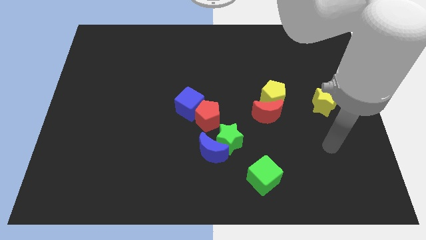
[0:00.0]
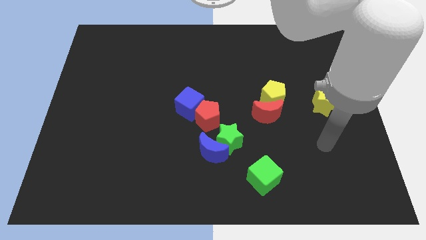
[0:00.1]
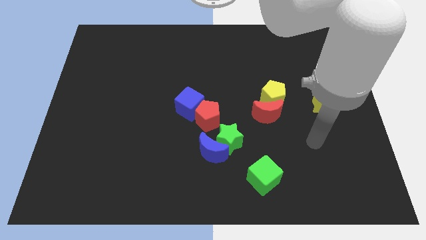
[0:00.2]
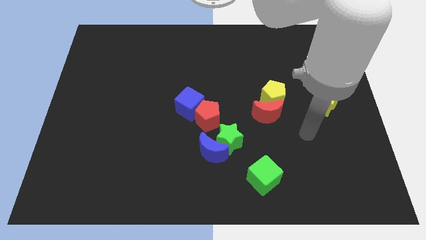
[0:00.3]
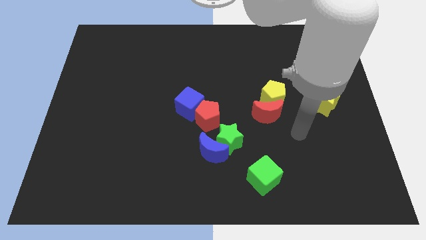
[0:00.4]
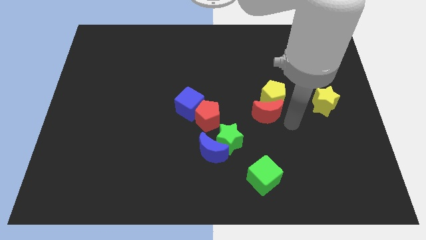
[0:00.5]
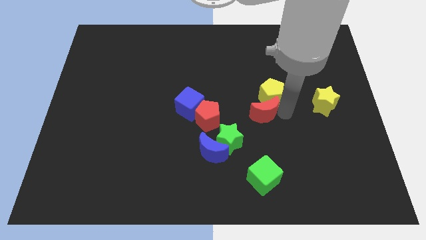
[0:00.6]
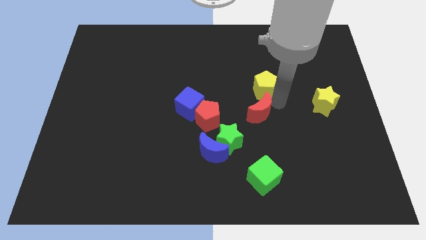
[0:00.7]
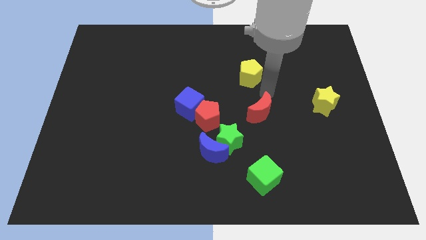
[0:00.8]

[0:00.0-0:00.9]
move the red moon away from the yellow pentagon

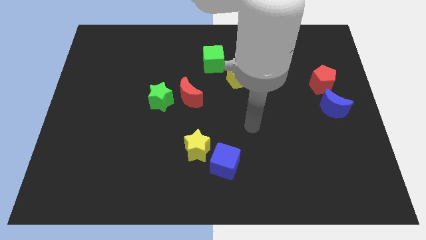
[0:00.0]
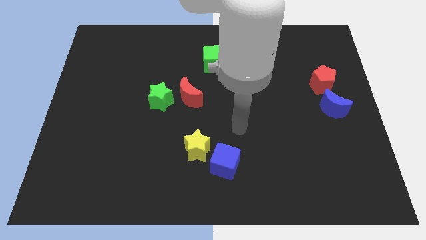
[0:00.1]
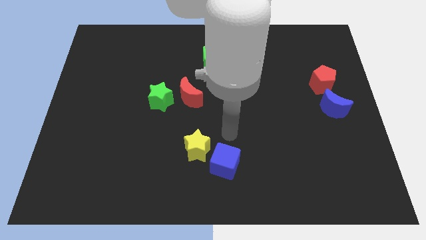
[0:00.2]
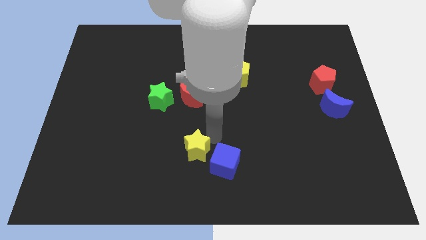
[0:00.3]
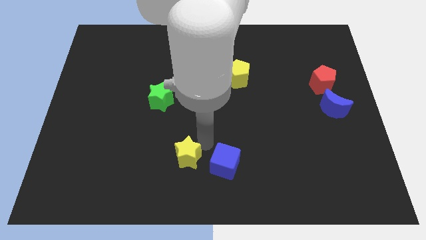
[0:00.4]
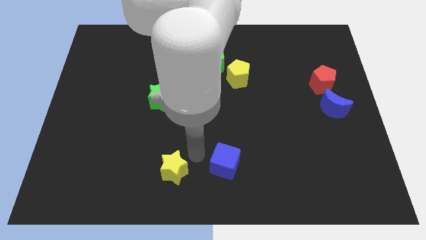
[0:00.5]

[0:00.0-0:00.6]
move the blue cube away from the yellow star

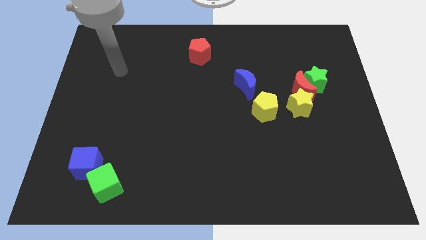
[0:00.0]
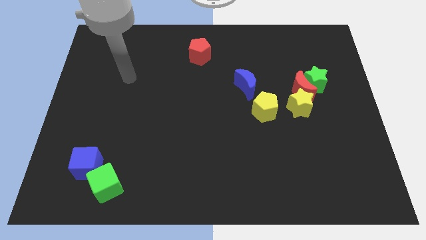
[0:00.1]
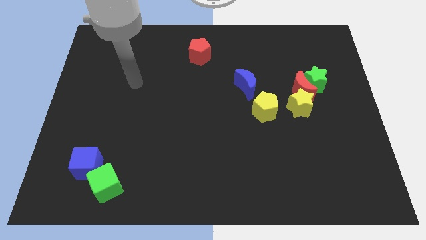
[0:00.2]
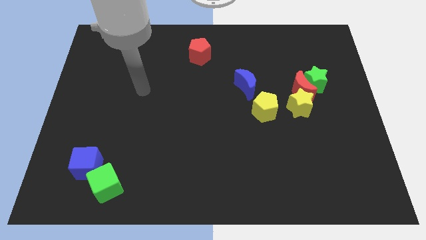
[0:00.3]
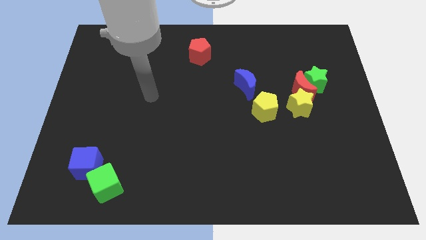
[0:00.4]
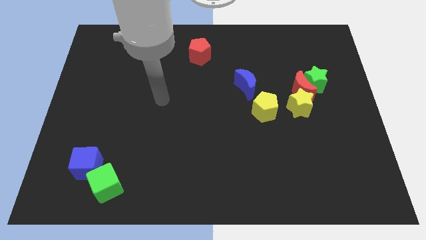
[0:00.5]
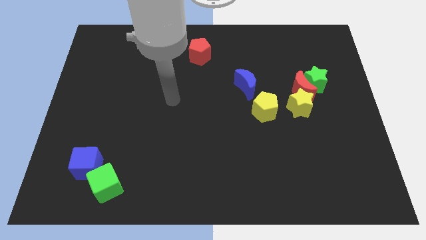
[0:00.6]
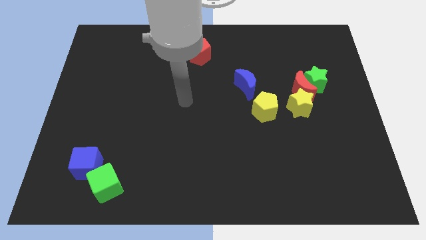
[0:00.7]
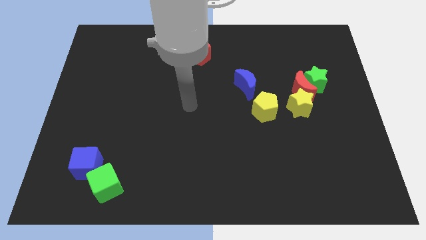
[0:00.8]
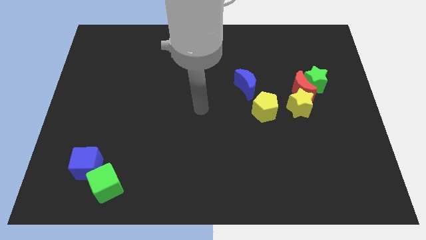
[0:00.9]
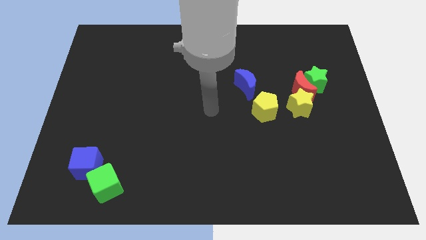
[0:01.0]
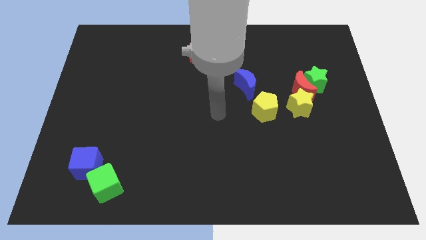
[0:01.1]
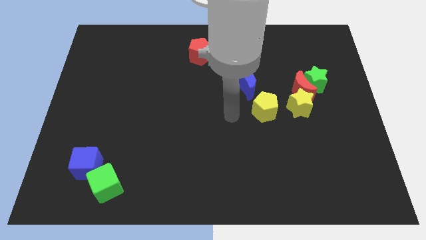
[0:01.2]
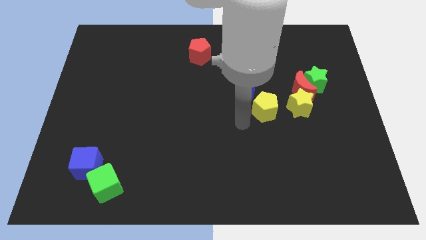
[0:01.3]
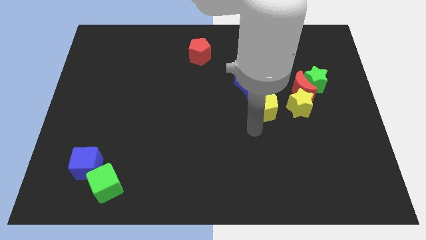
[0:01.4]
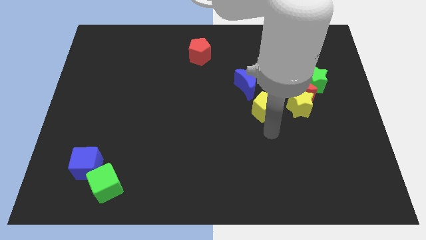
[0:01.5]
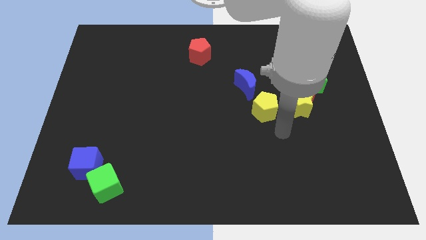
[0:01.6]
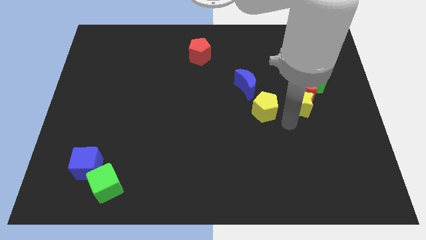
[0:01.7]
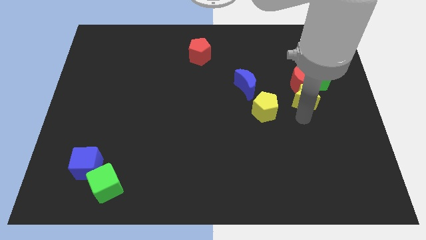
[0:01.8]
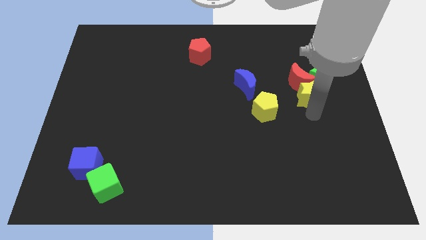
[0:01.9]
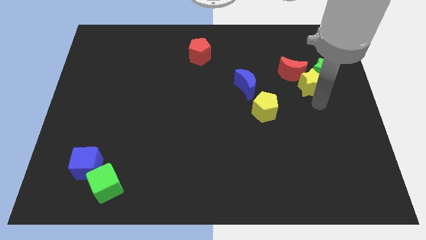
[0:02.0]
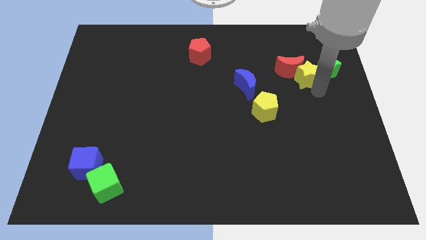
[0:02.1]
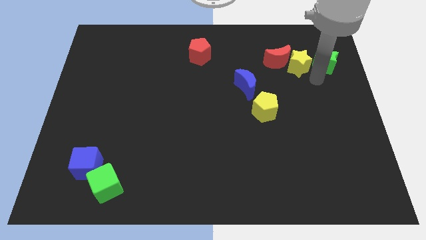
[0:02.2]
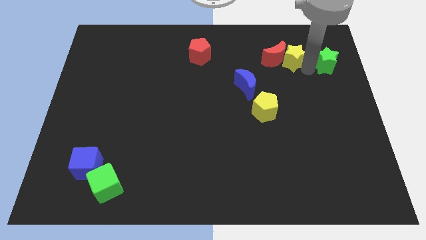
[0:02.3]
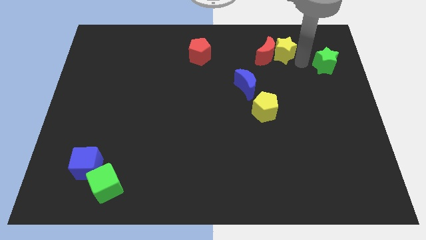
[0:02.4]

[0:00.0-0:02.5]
separate the red moon from the green star and yellow star

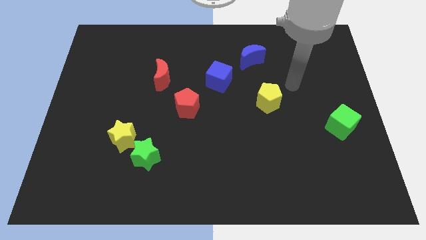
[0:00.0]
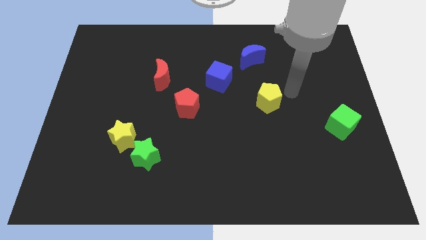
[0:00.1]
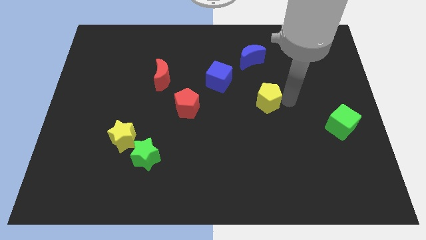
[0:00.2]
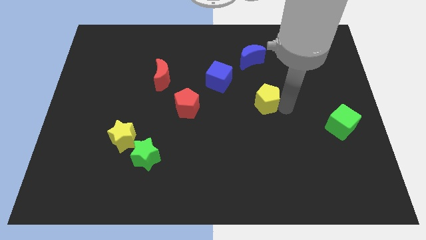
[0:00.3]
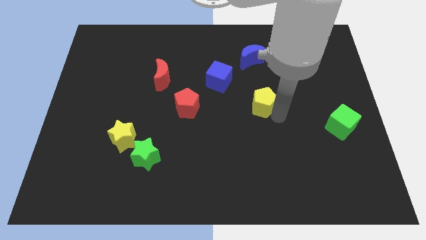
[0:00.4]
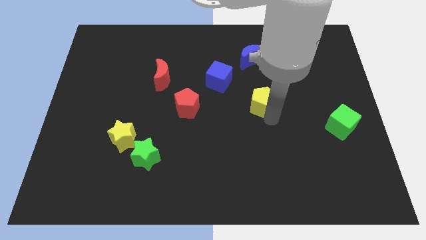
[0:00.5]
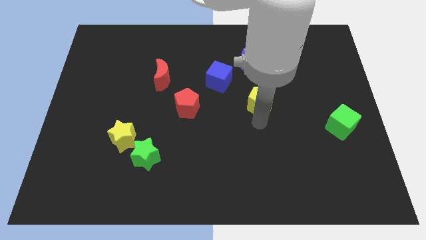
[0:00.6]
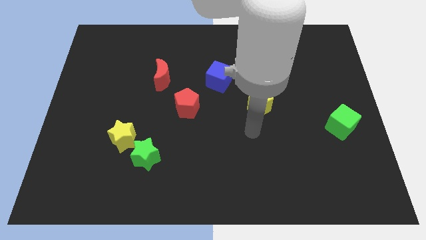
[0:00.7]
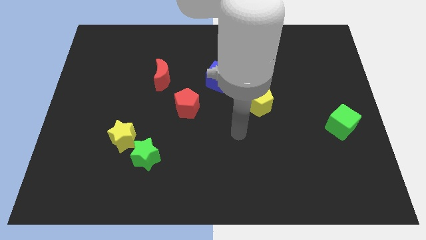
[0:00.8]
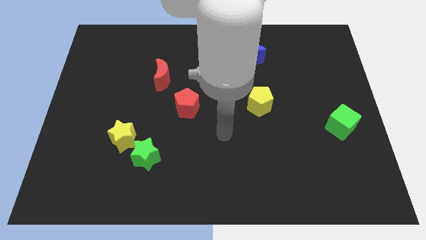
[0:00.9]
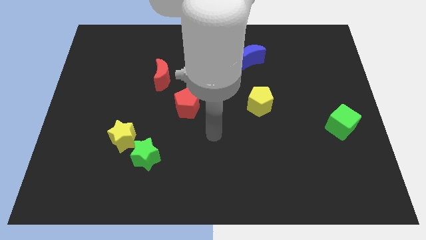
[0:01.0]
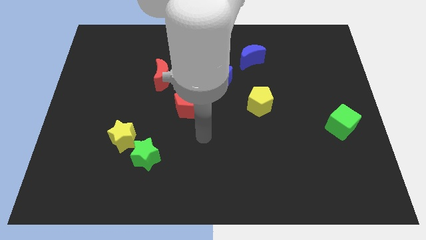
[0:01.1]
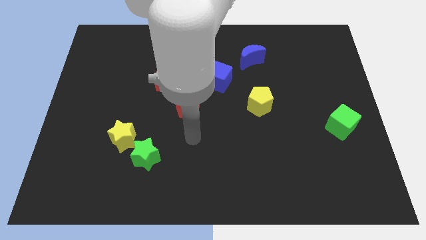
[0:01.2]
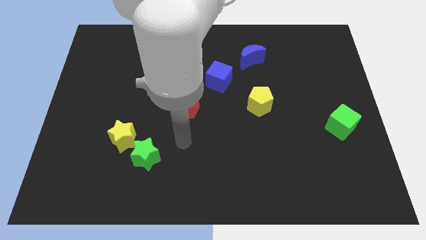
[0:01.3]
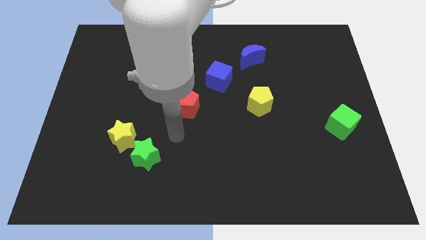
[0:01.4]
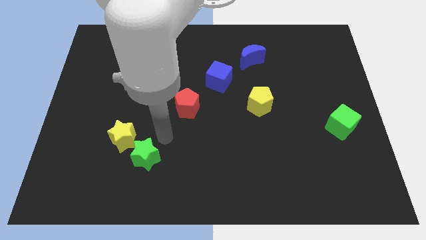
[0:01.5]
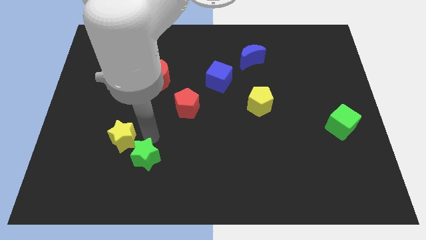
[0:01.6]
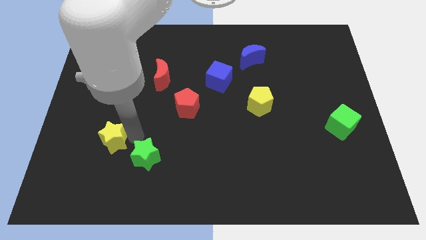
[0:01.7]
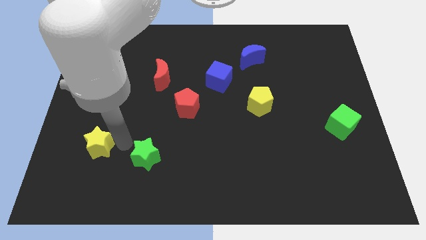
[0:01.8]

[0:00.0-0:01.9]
pull the green star apart from the yellow star

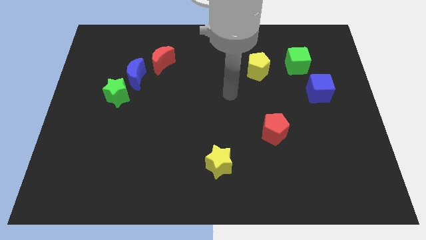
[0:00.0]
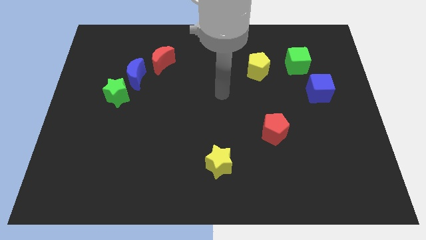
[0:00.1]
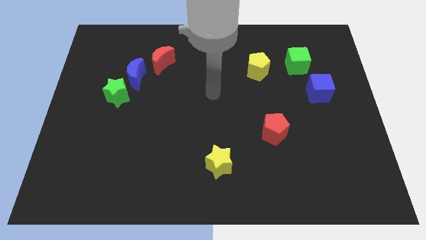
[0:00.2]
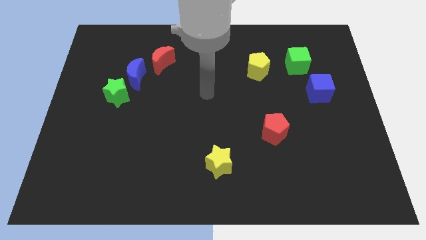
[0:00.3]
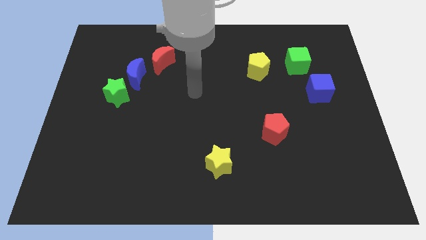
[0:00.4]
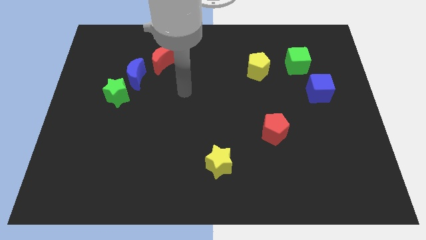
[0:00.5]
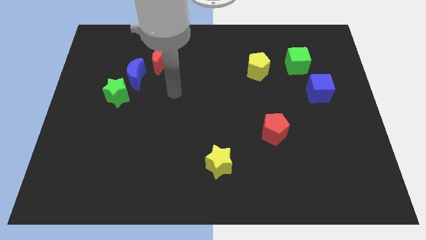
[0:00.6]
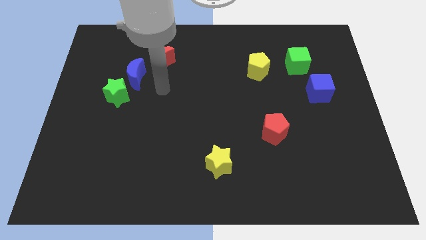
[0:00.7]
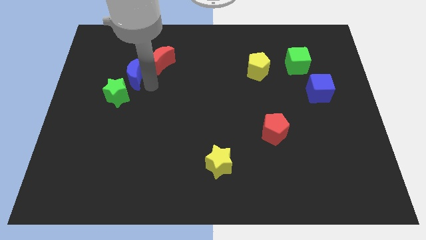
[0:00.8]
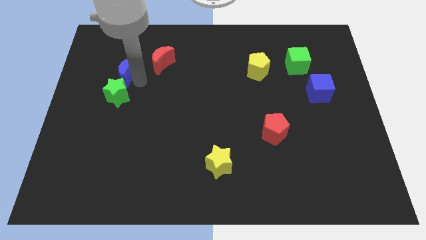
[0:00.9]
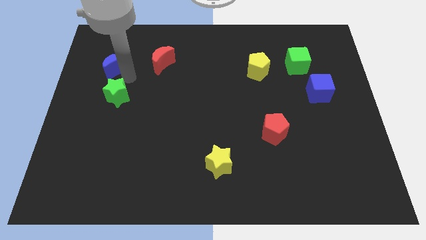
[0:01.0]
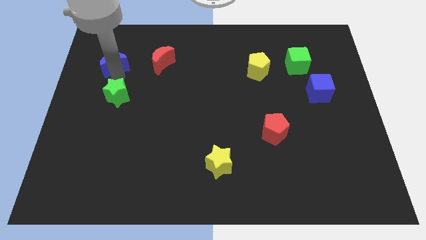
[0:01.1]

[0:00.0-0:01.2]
move the green star away from the blue moon

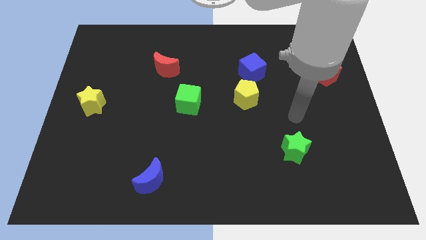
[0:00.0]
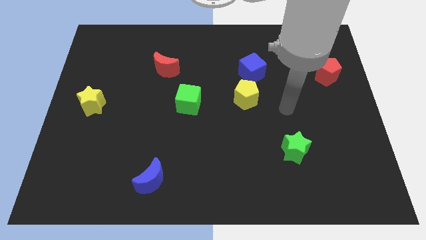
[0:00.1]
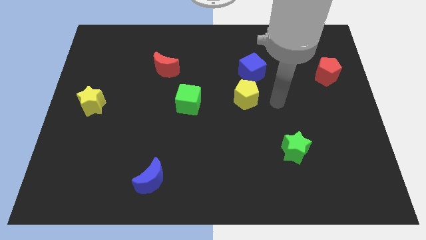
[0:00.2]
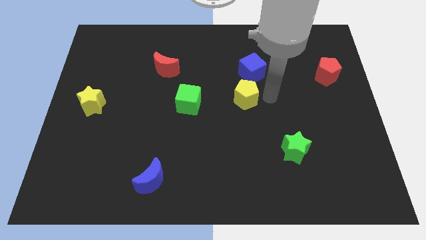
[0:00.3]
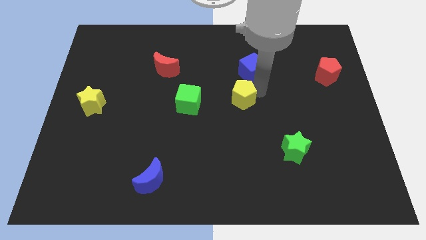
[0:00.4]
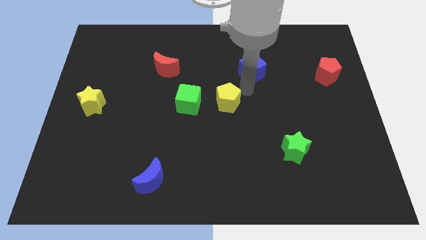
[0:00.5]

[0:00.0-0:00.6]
separate the blue cube from the yellow pentagon

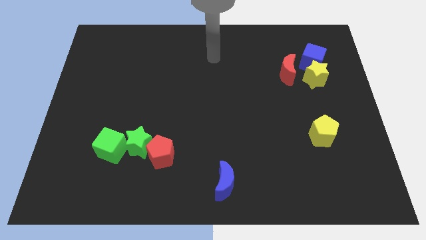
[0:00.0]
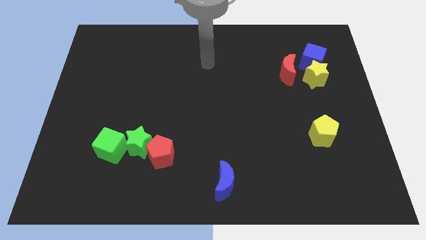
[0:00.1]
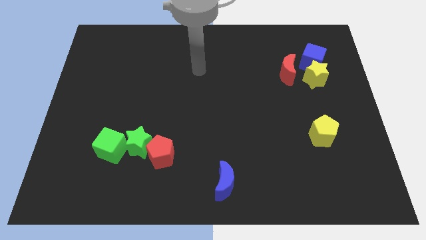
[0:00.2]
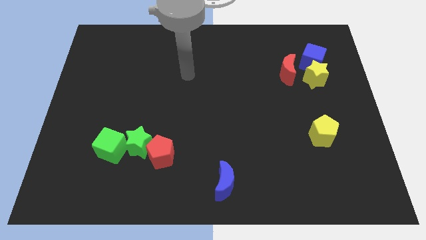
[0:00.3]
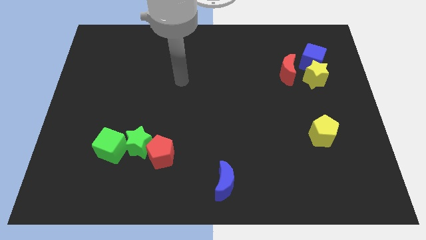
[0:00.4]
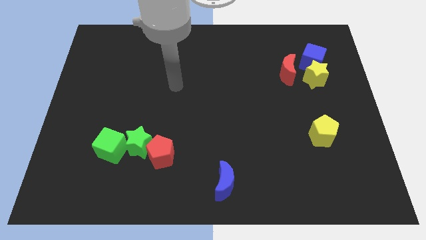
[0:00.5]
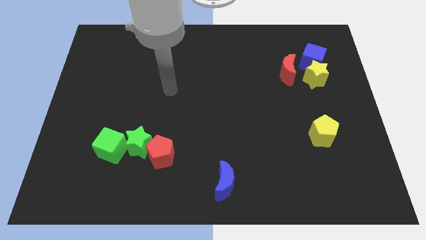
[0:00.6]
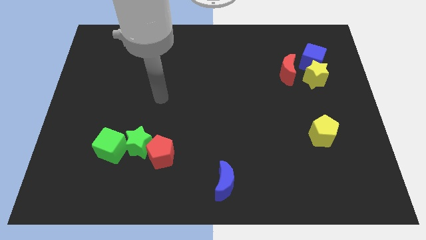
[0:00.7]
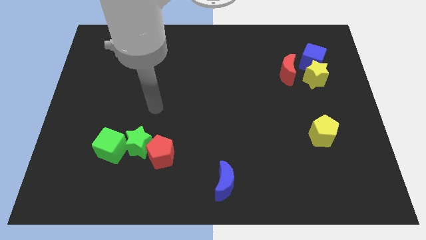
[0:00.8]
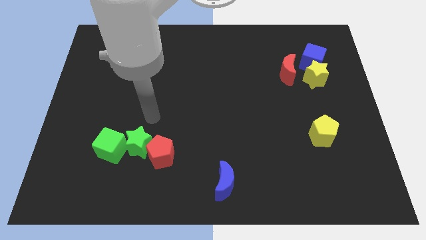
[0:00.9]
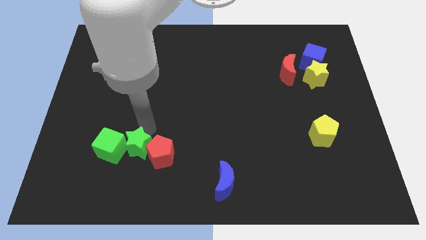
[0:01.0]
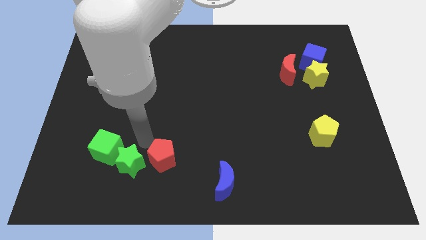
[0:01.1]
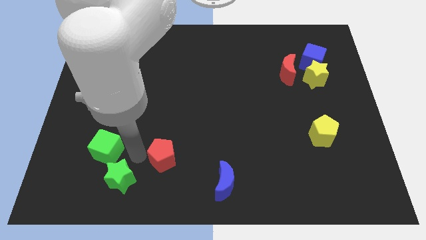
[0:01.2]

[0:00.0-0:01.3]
separate the red pentagon from the green star

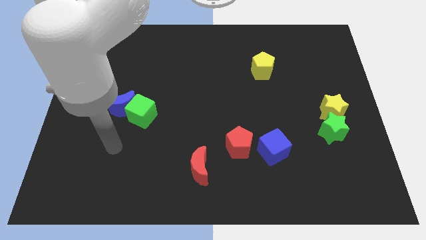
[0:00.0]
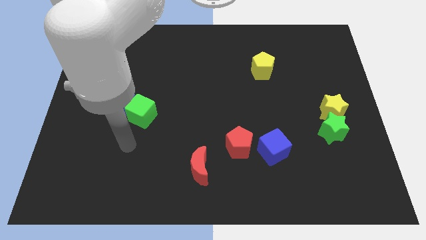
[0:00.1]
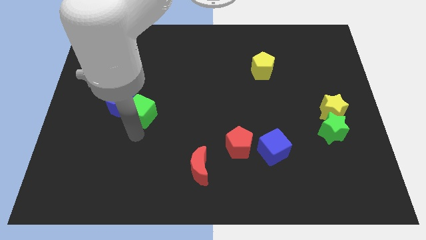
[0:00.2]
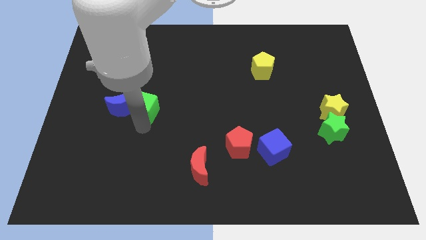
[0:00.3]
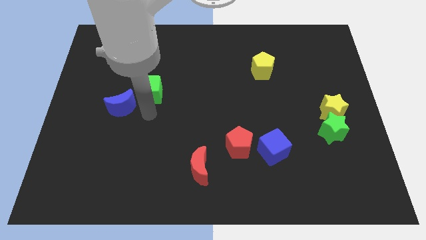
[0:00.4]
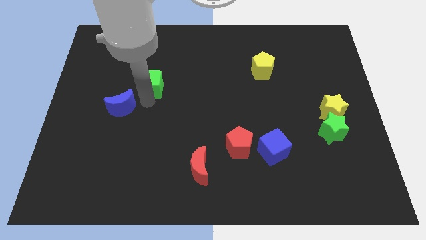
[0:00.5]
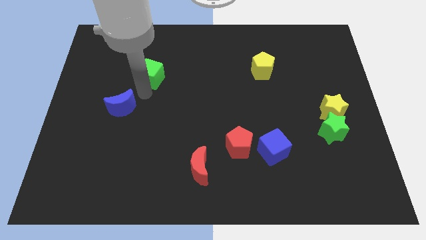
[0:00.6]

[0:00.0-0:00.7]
move the blue moon away from the green cube
